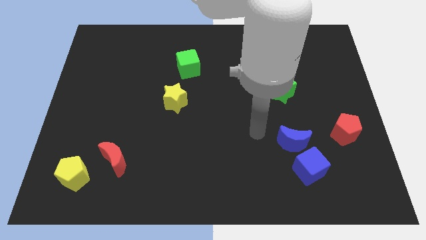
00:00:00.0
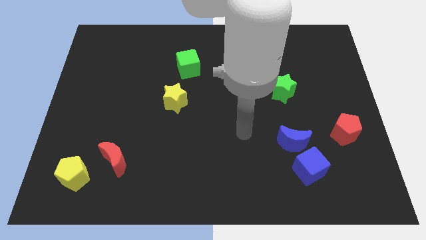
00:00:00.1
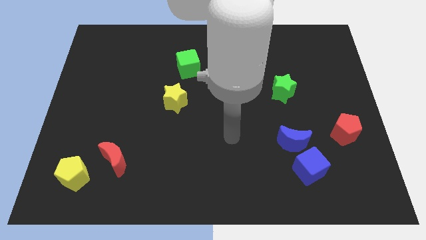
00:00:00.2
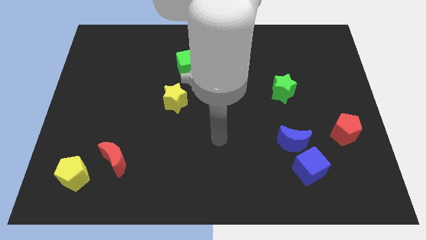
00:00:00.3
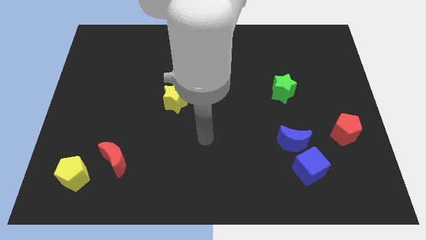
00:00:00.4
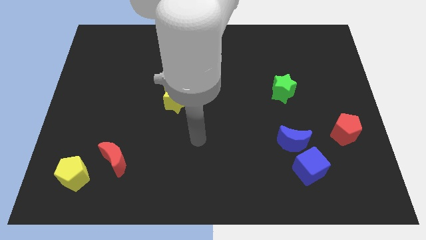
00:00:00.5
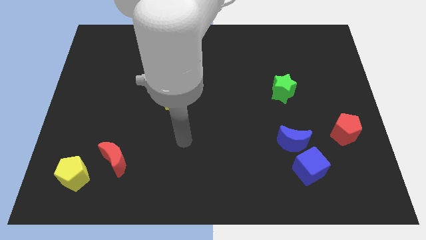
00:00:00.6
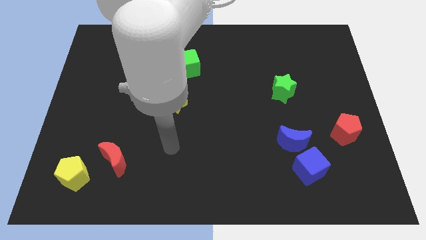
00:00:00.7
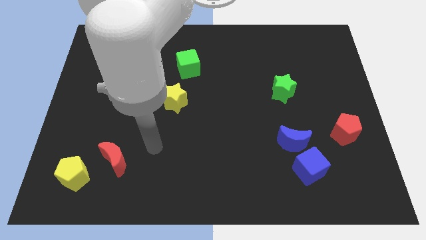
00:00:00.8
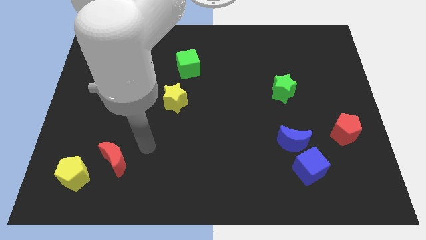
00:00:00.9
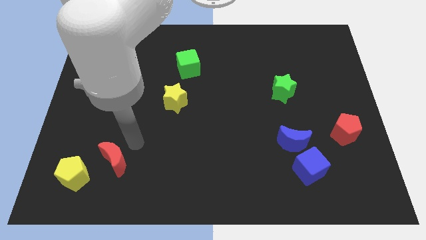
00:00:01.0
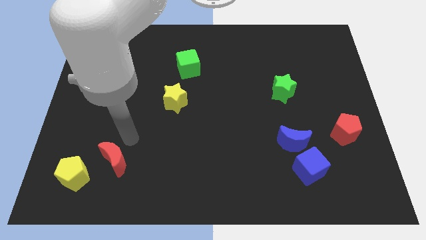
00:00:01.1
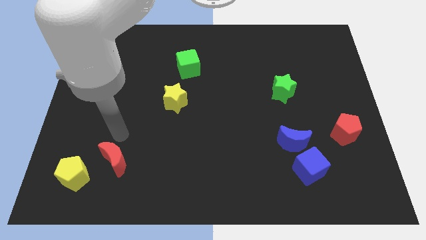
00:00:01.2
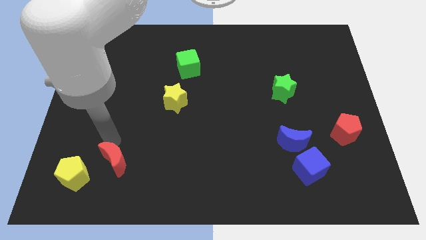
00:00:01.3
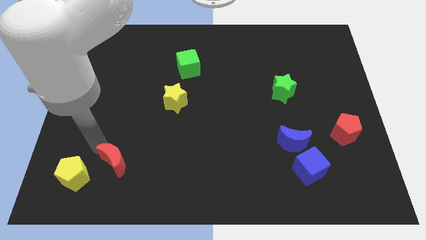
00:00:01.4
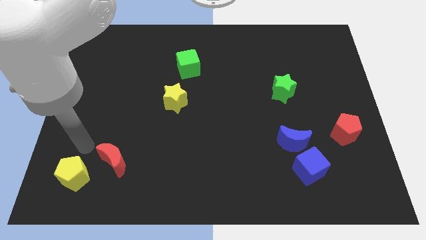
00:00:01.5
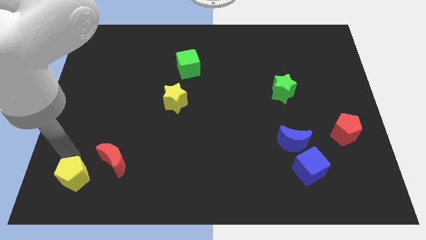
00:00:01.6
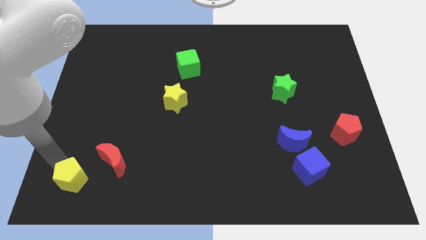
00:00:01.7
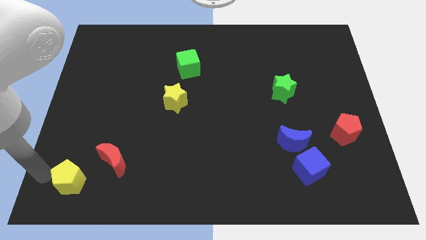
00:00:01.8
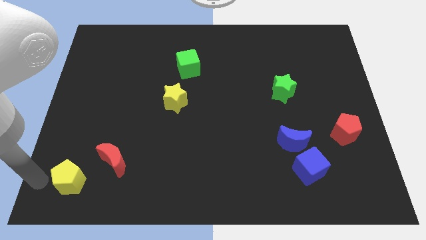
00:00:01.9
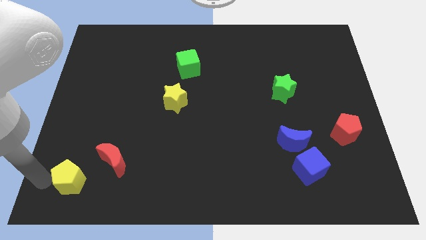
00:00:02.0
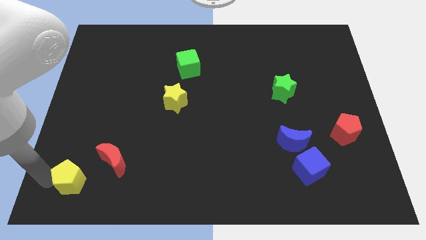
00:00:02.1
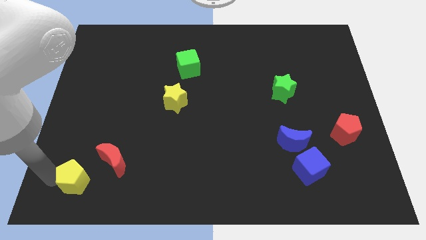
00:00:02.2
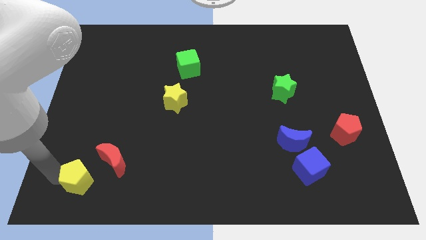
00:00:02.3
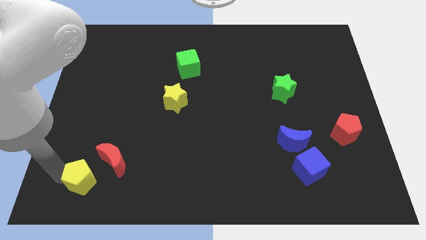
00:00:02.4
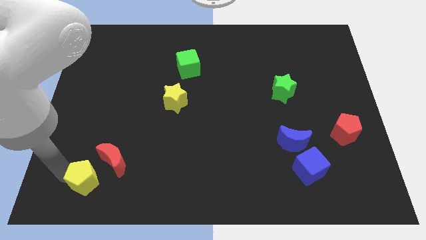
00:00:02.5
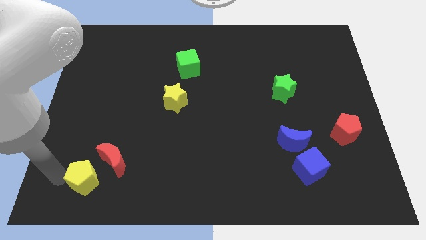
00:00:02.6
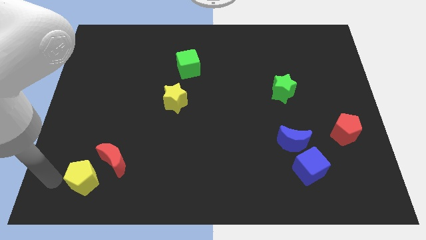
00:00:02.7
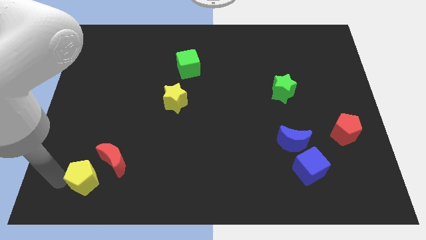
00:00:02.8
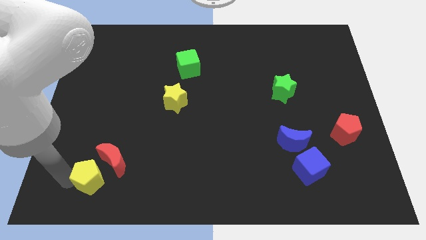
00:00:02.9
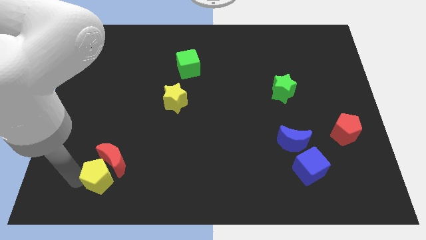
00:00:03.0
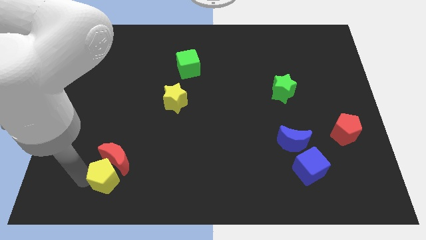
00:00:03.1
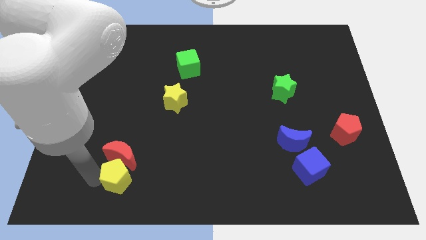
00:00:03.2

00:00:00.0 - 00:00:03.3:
slightly slide the yellow pentagon to the right

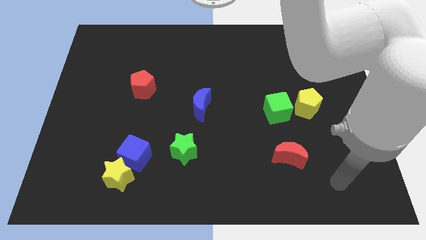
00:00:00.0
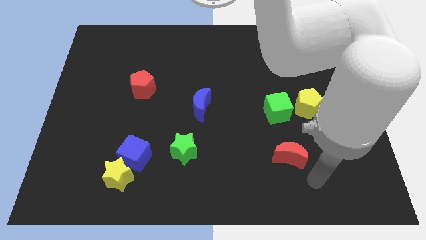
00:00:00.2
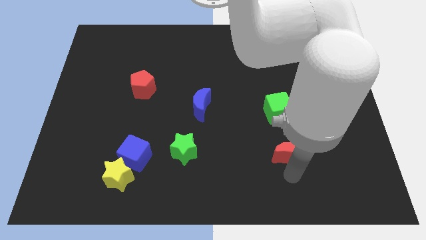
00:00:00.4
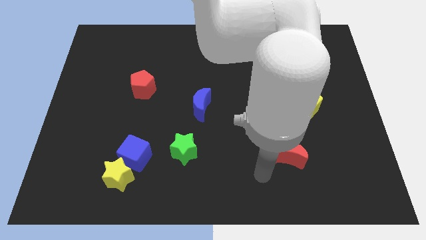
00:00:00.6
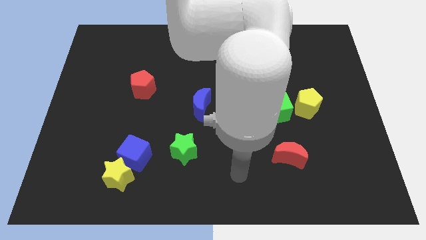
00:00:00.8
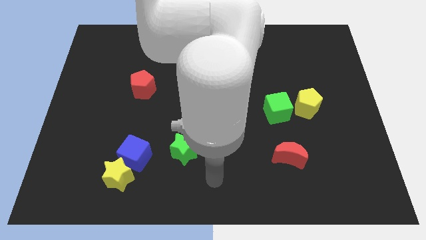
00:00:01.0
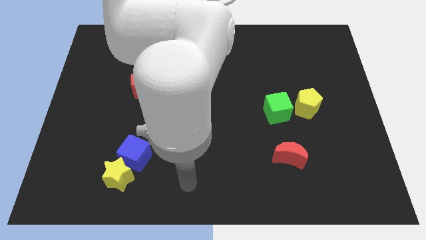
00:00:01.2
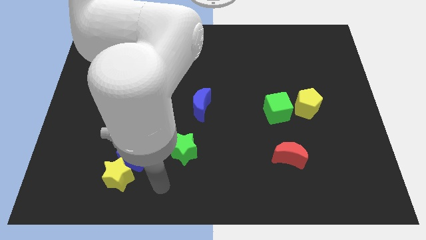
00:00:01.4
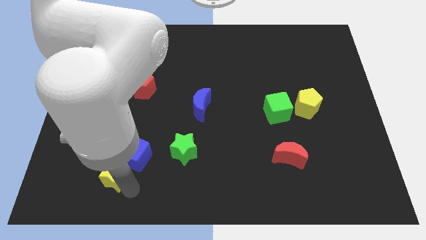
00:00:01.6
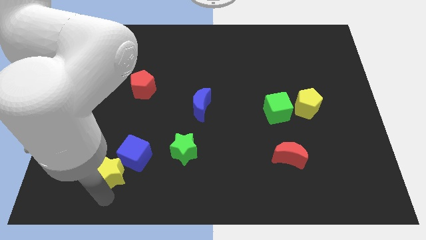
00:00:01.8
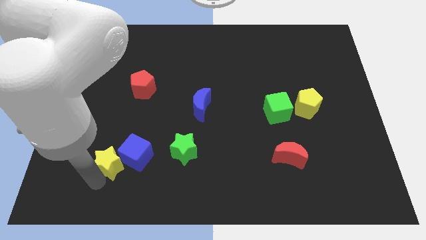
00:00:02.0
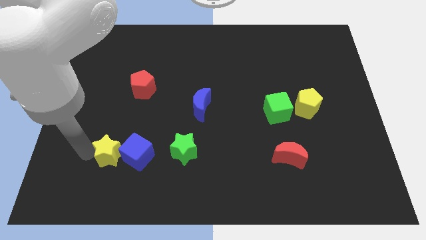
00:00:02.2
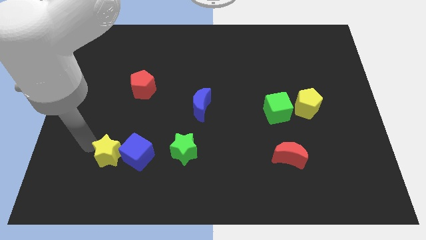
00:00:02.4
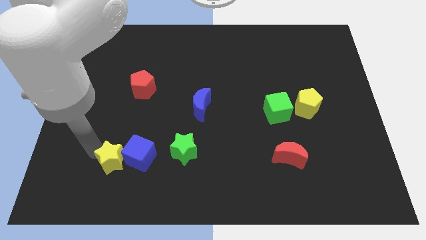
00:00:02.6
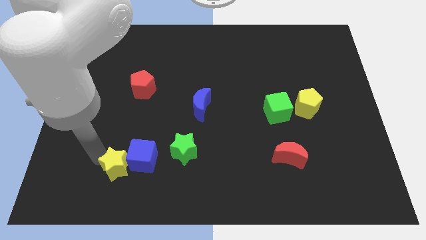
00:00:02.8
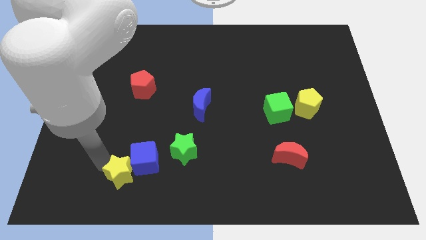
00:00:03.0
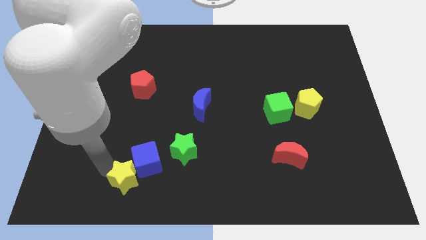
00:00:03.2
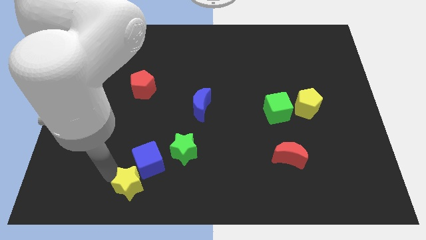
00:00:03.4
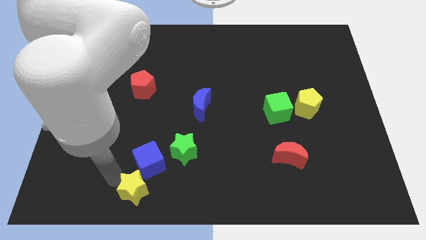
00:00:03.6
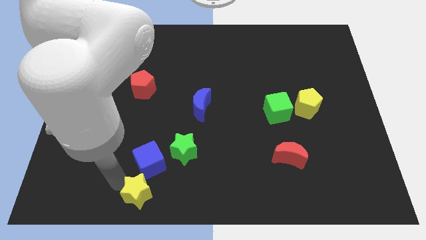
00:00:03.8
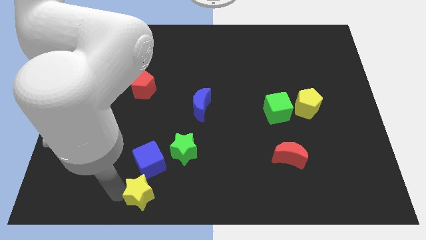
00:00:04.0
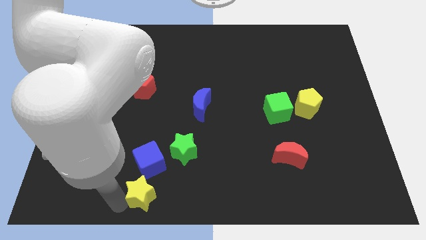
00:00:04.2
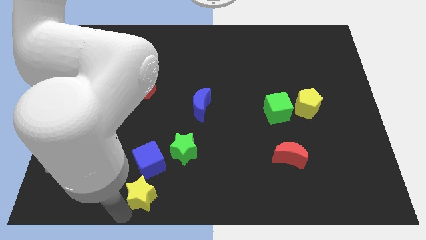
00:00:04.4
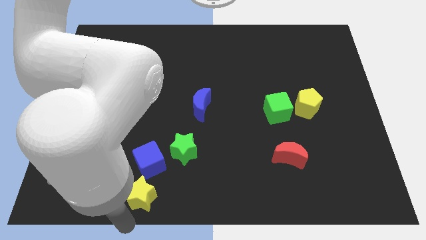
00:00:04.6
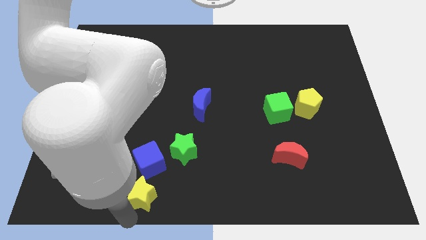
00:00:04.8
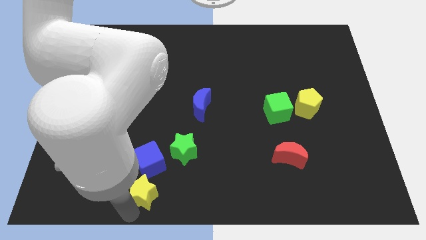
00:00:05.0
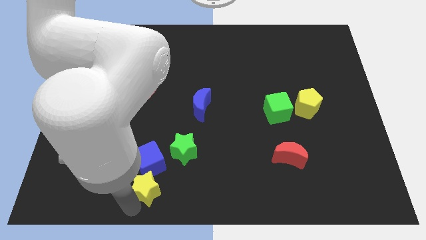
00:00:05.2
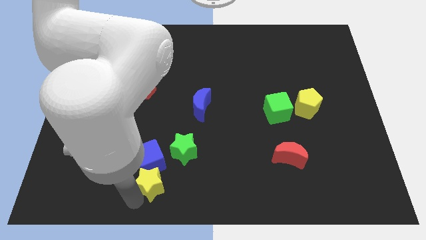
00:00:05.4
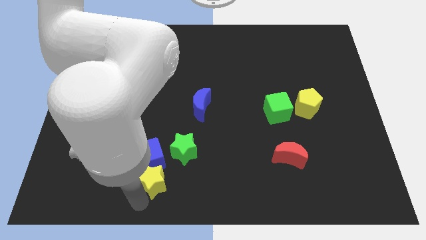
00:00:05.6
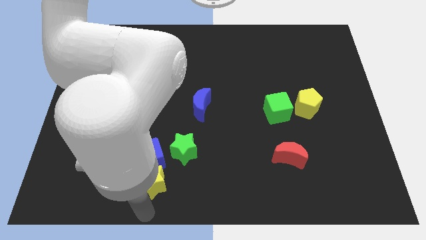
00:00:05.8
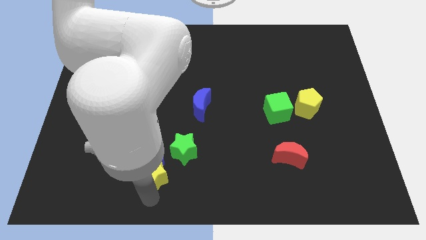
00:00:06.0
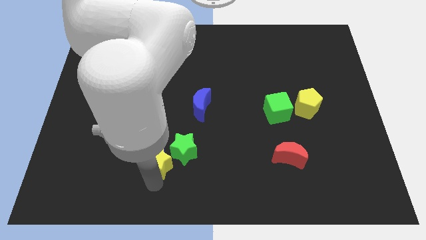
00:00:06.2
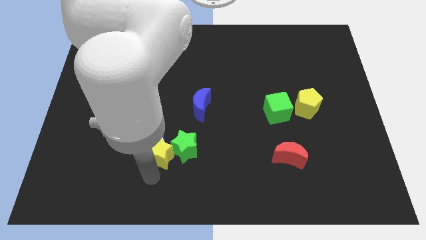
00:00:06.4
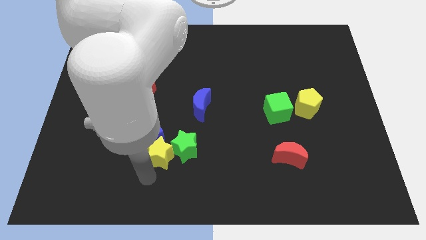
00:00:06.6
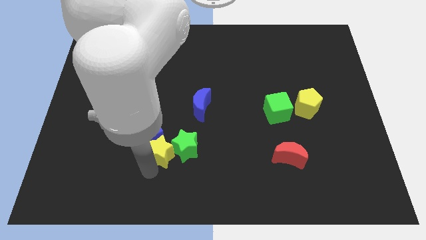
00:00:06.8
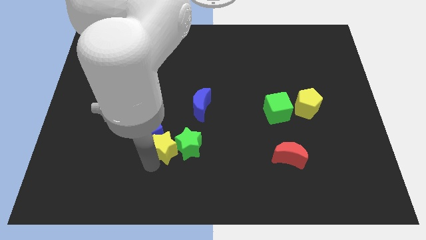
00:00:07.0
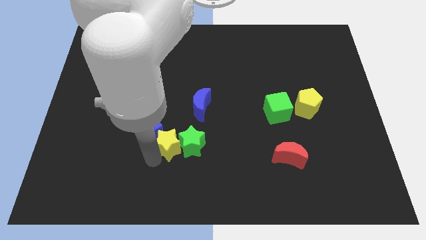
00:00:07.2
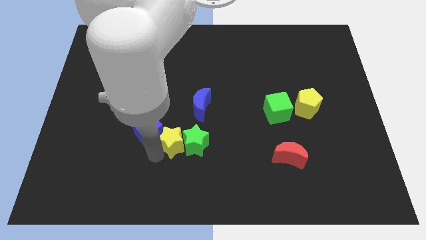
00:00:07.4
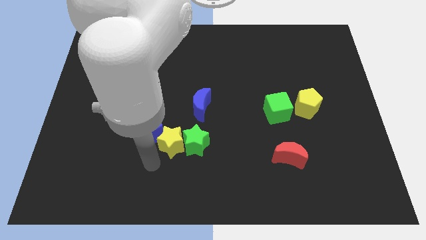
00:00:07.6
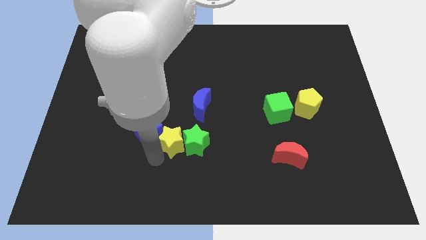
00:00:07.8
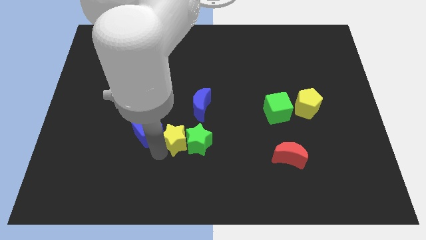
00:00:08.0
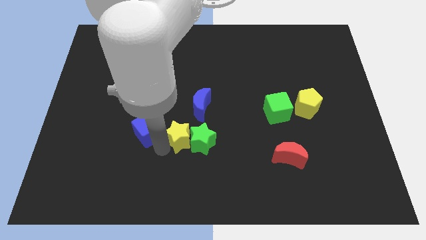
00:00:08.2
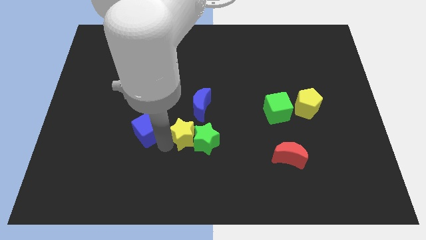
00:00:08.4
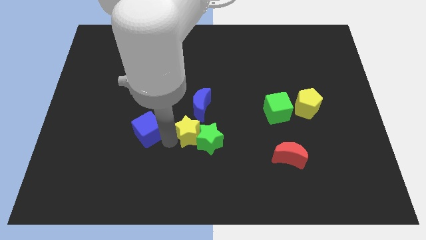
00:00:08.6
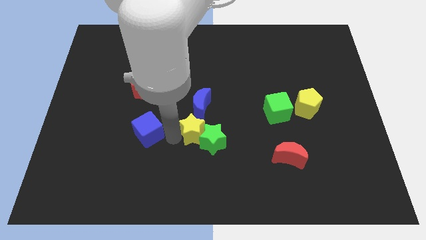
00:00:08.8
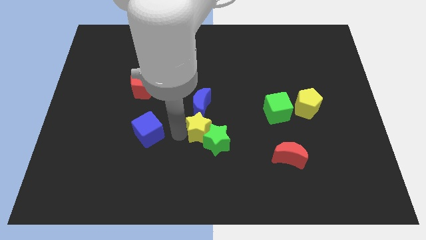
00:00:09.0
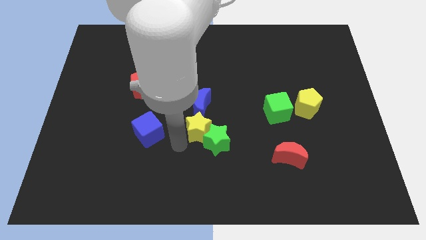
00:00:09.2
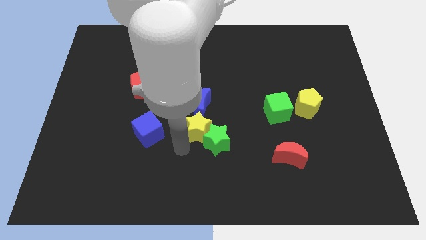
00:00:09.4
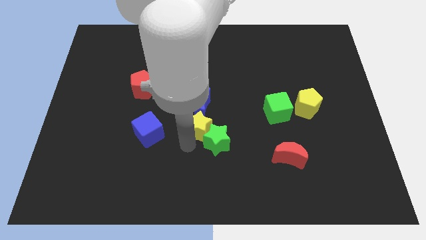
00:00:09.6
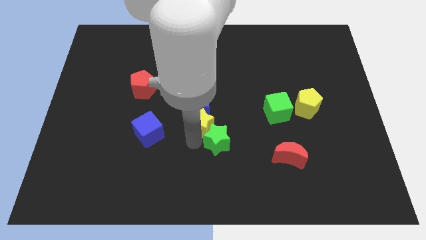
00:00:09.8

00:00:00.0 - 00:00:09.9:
slide the yellow star diagonally upwards and to the right
